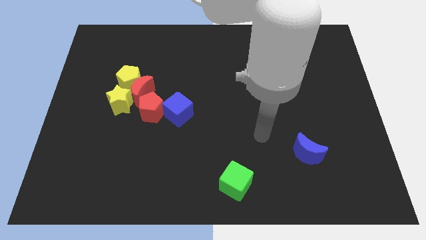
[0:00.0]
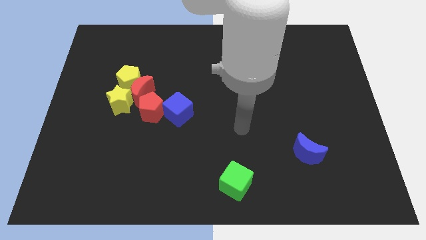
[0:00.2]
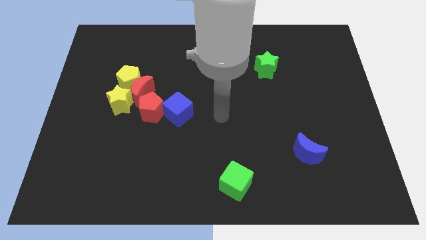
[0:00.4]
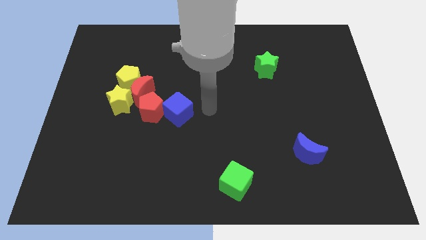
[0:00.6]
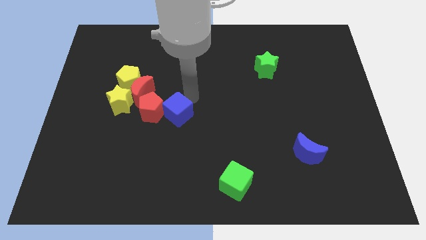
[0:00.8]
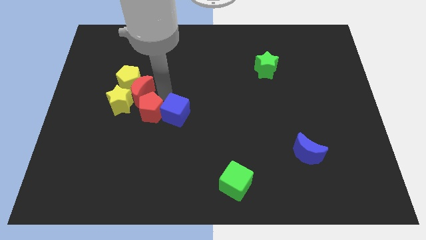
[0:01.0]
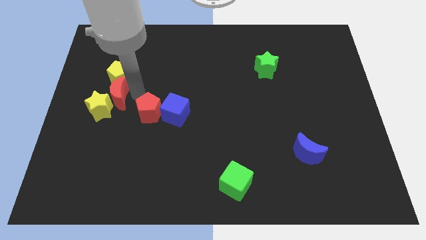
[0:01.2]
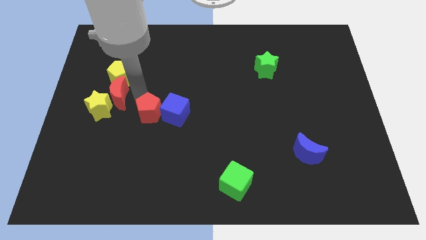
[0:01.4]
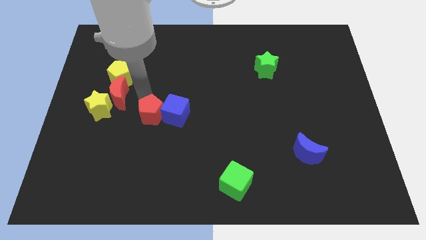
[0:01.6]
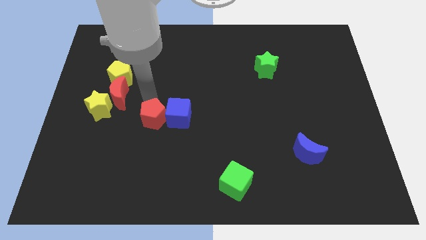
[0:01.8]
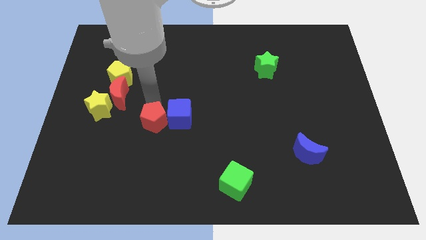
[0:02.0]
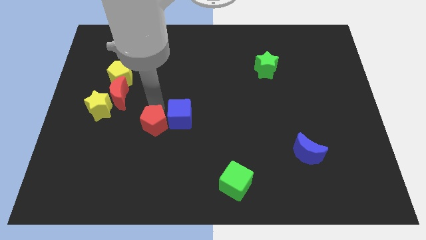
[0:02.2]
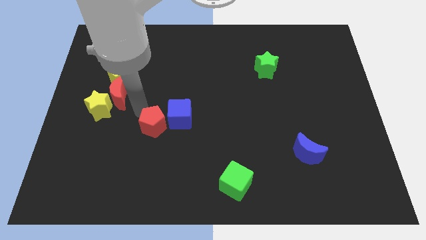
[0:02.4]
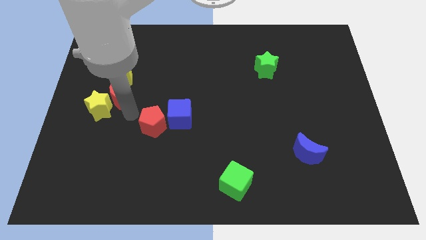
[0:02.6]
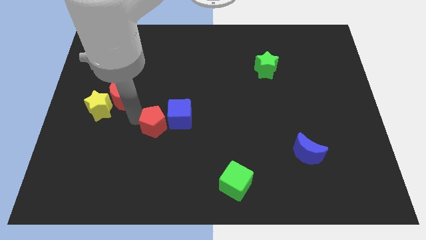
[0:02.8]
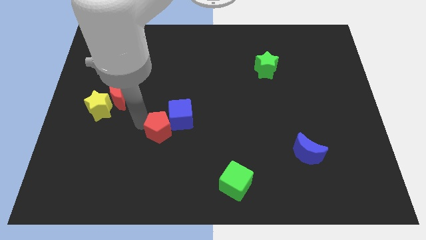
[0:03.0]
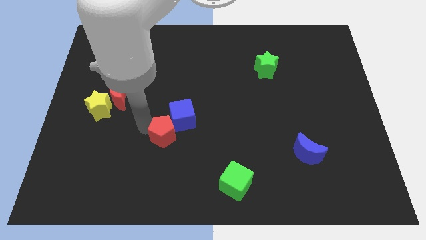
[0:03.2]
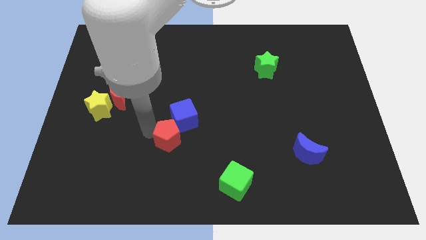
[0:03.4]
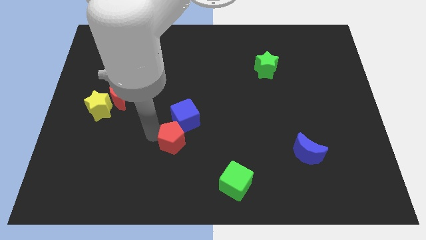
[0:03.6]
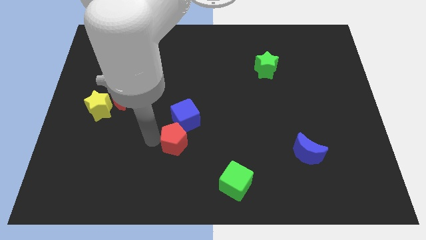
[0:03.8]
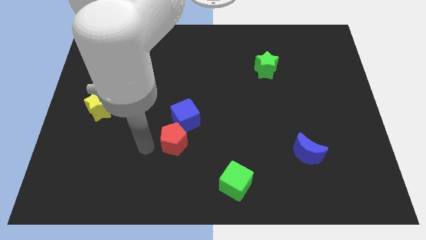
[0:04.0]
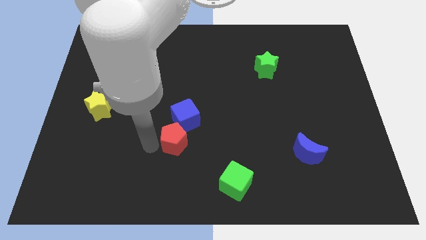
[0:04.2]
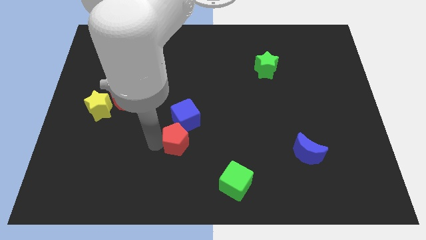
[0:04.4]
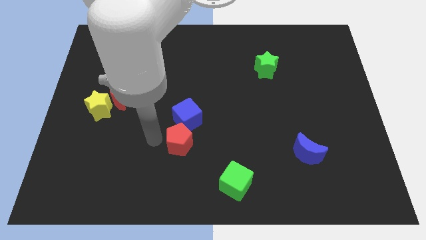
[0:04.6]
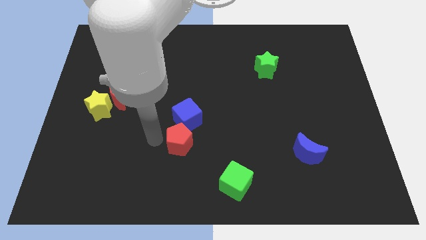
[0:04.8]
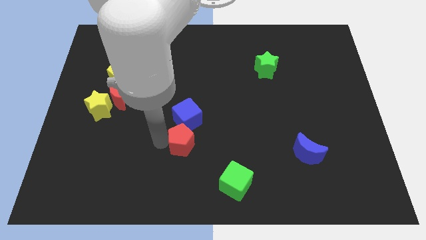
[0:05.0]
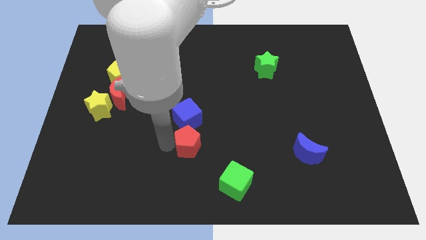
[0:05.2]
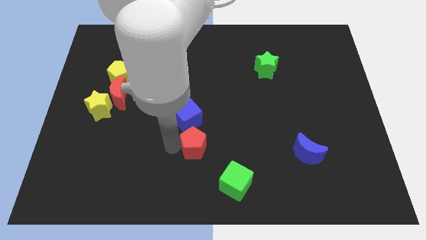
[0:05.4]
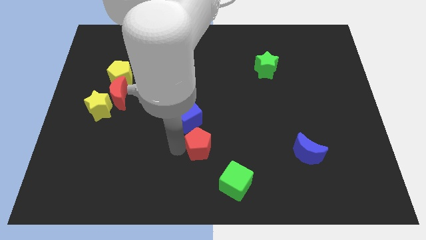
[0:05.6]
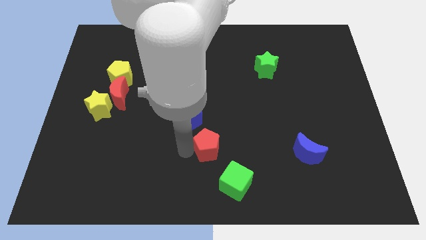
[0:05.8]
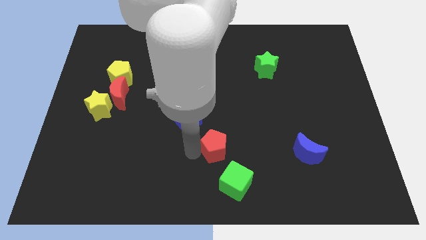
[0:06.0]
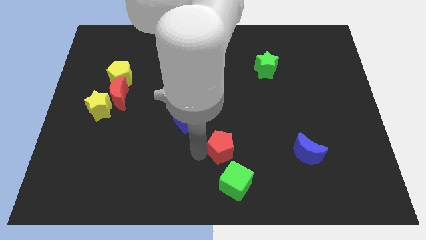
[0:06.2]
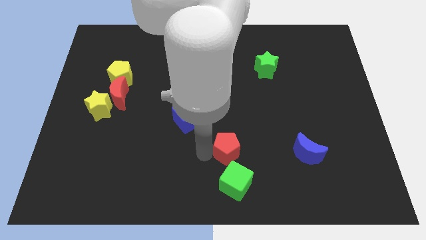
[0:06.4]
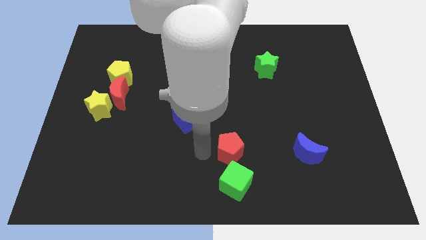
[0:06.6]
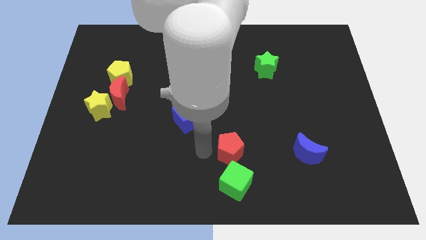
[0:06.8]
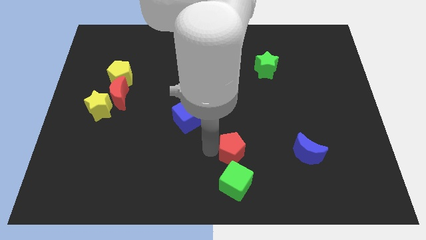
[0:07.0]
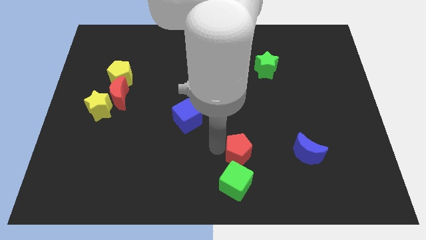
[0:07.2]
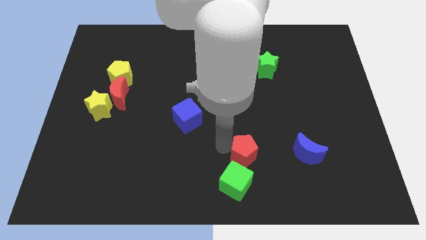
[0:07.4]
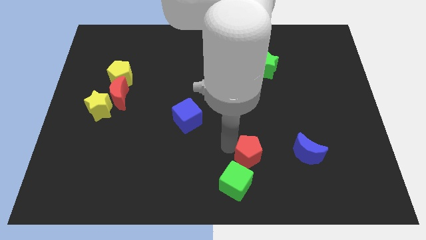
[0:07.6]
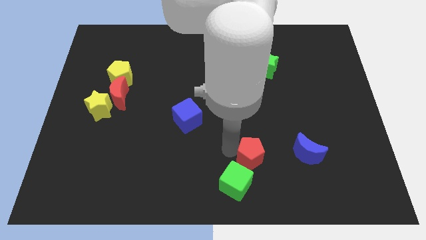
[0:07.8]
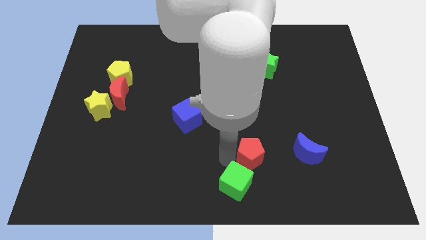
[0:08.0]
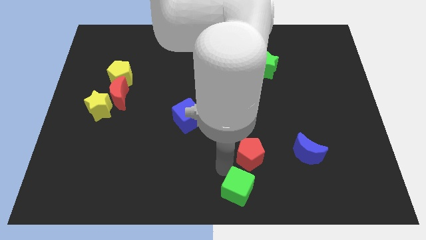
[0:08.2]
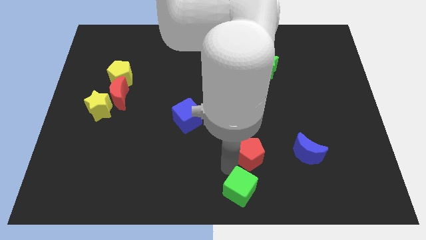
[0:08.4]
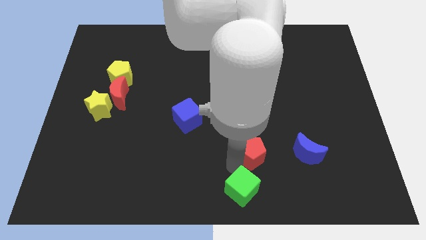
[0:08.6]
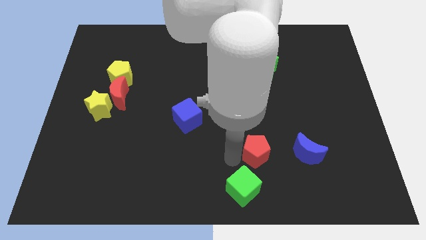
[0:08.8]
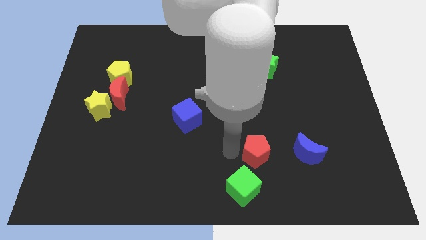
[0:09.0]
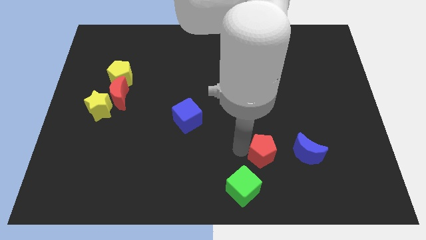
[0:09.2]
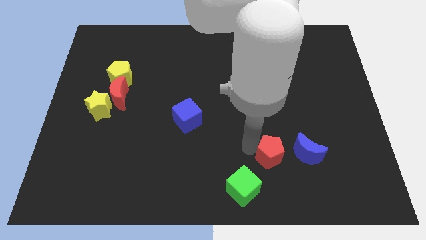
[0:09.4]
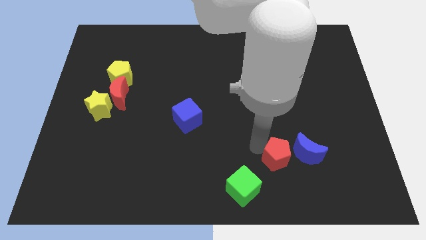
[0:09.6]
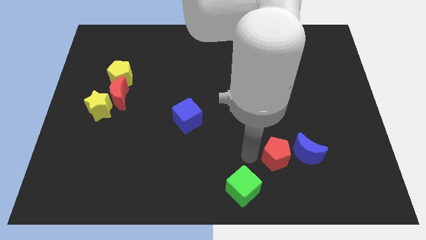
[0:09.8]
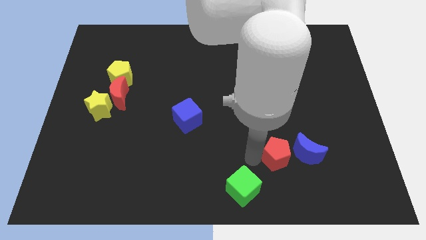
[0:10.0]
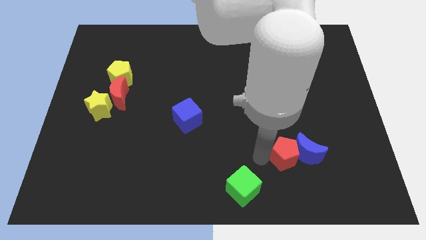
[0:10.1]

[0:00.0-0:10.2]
put the red pentagon close to the blue moon

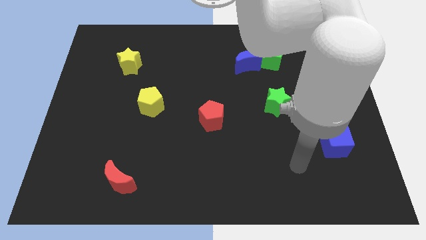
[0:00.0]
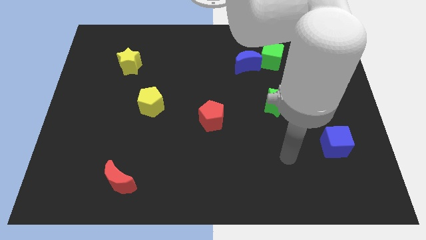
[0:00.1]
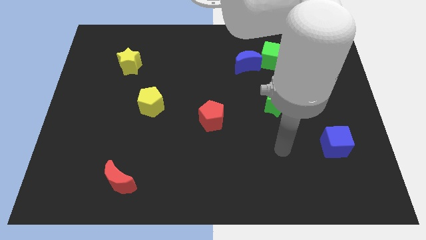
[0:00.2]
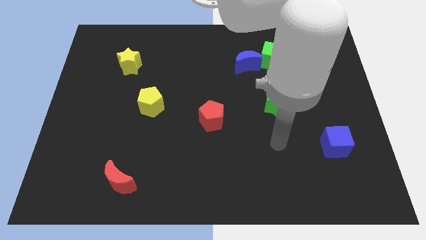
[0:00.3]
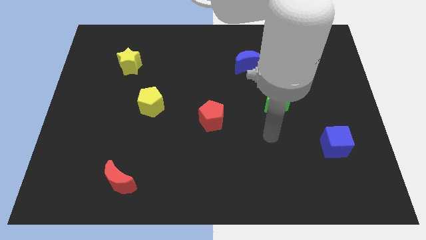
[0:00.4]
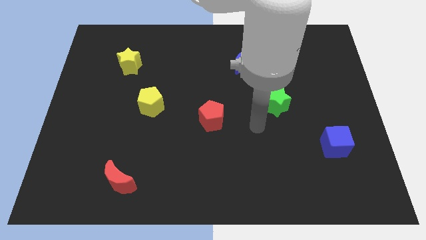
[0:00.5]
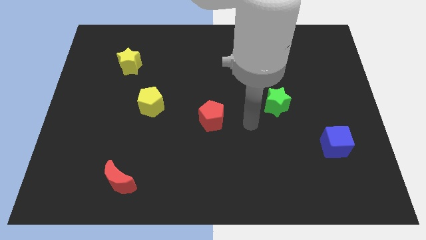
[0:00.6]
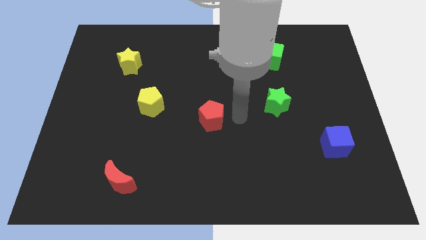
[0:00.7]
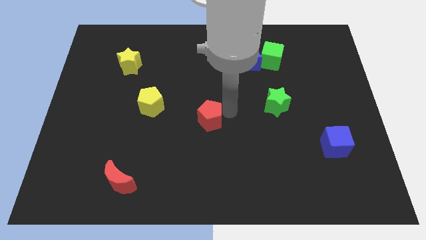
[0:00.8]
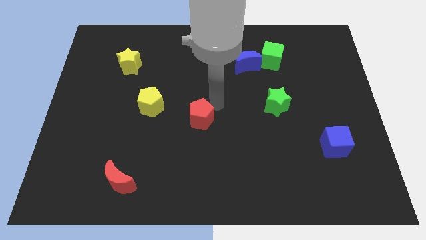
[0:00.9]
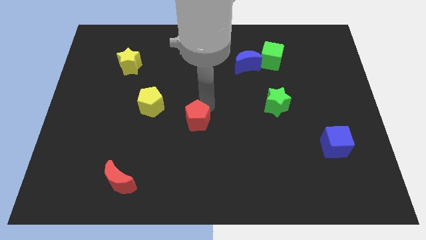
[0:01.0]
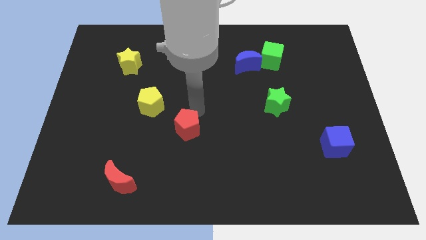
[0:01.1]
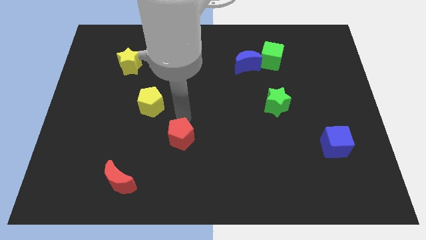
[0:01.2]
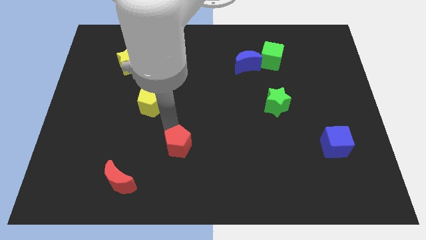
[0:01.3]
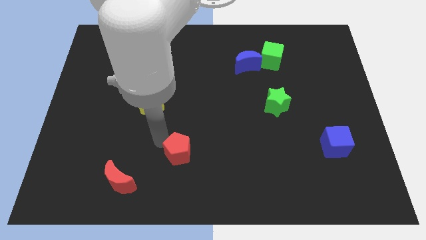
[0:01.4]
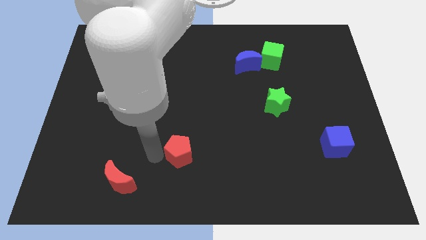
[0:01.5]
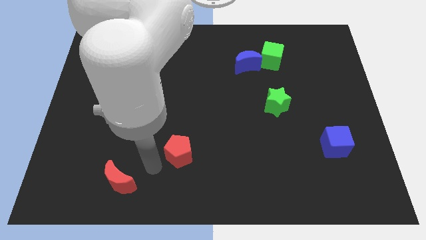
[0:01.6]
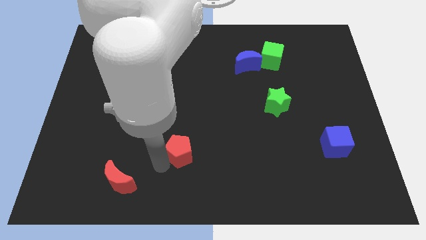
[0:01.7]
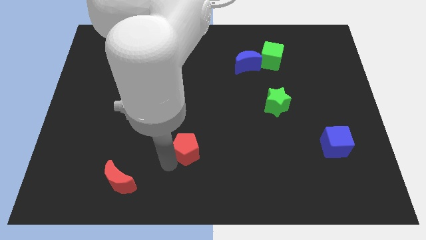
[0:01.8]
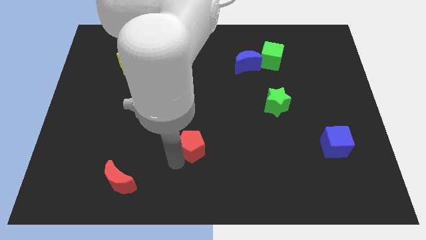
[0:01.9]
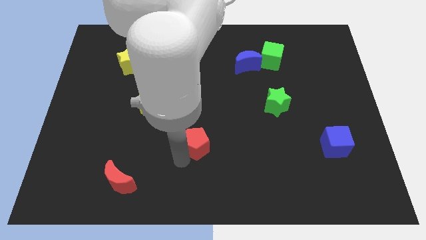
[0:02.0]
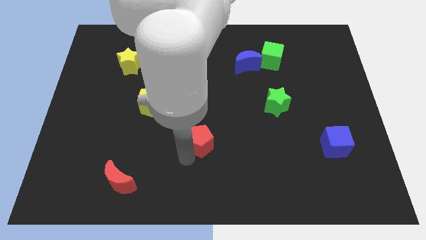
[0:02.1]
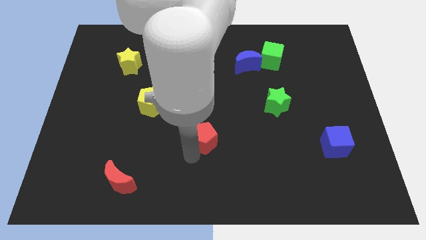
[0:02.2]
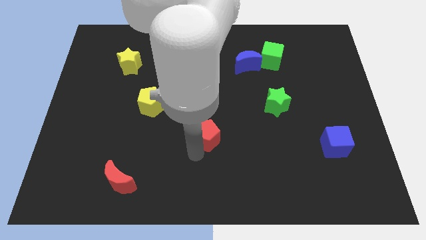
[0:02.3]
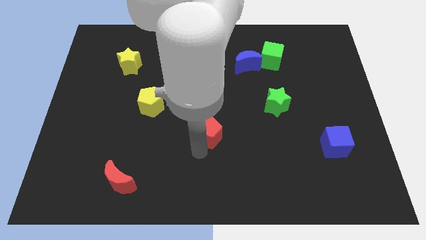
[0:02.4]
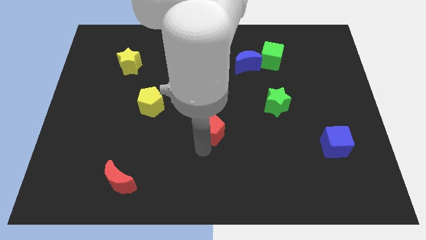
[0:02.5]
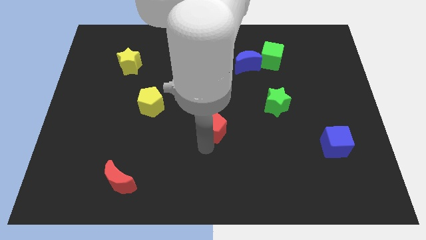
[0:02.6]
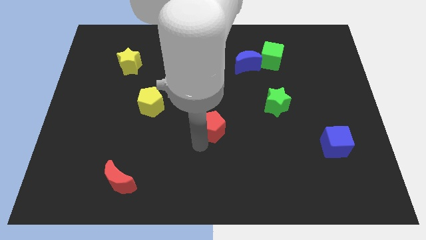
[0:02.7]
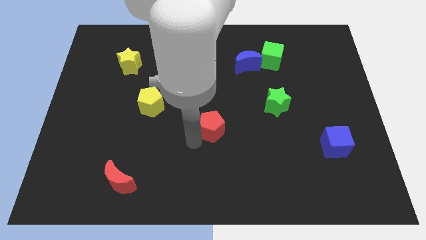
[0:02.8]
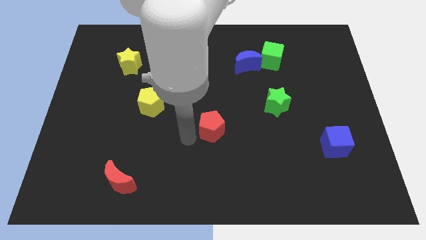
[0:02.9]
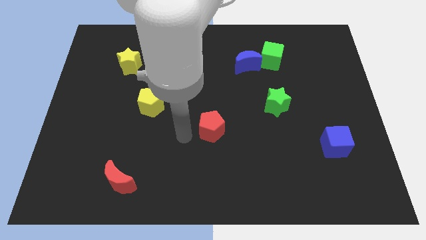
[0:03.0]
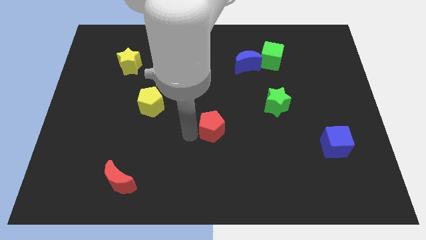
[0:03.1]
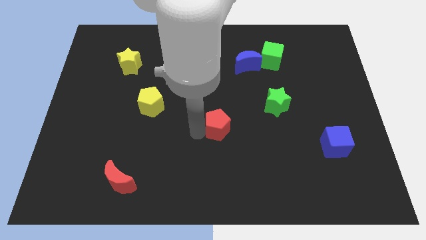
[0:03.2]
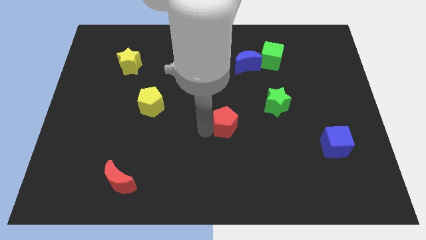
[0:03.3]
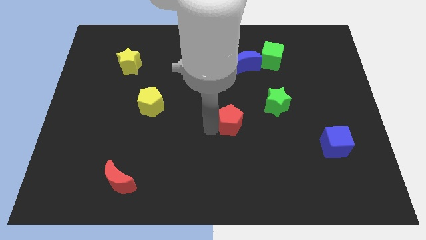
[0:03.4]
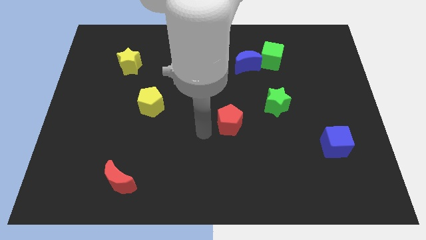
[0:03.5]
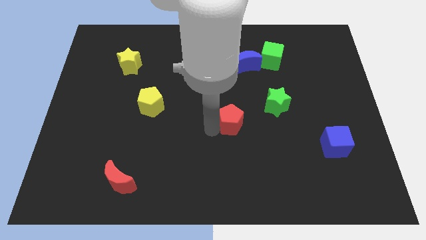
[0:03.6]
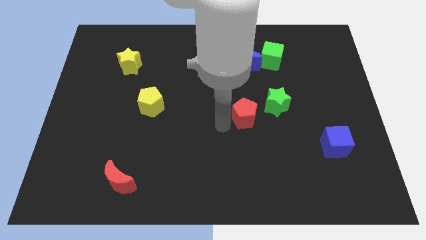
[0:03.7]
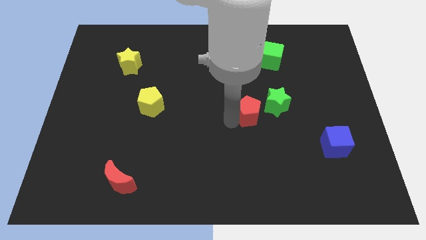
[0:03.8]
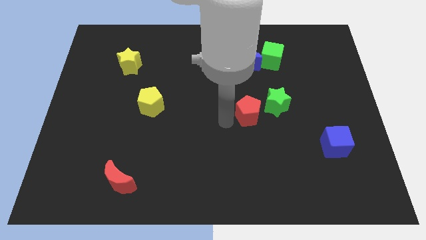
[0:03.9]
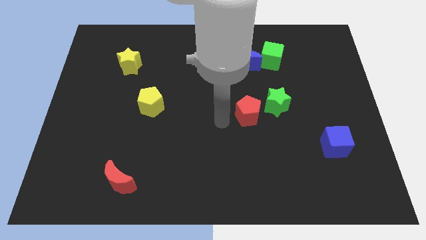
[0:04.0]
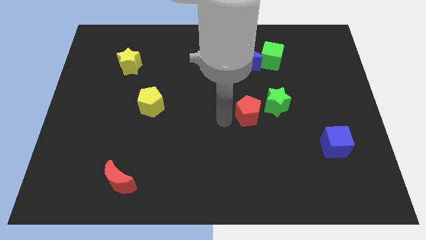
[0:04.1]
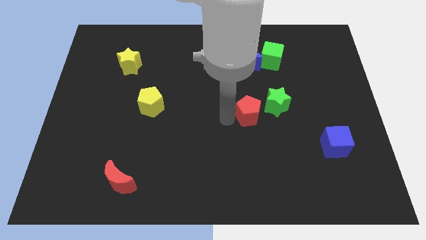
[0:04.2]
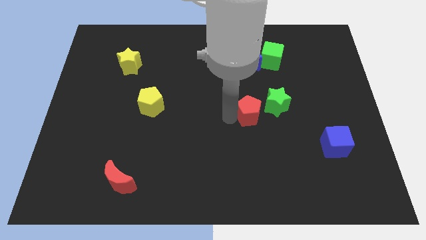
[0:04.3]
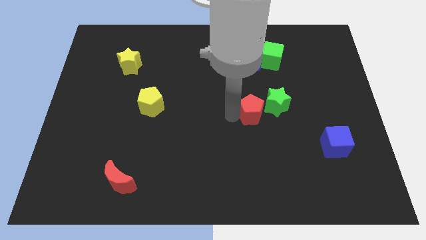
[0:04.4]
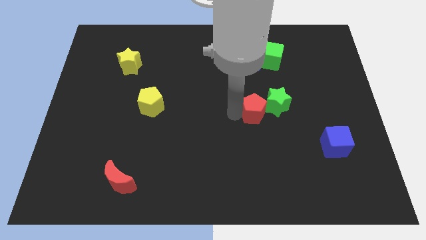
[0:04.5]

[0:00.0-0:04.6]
put the red pentagon close to the green star
